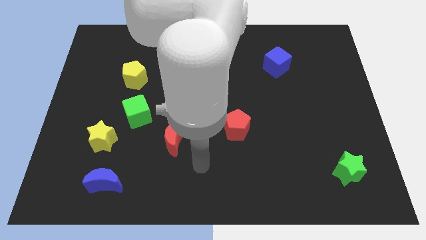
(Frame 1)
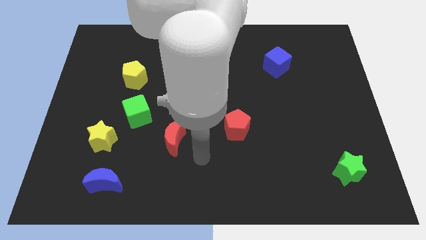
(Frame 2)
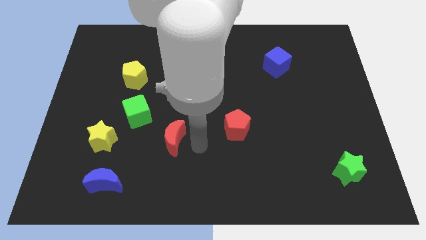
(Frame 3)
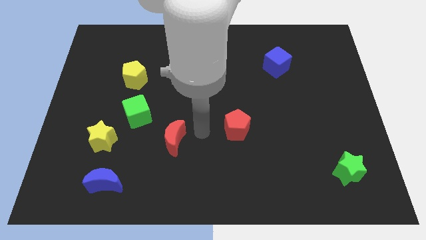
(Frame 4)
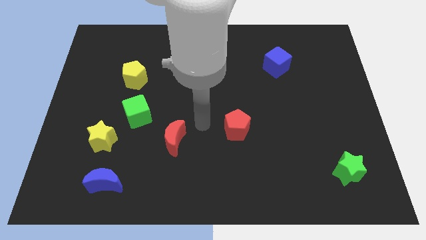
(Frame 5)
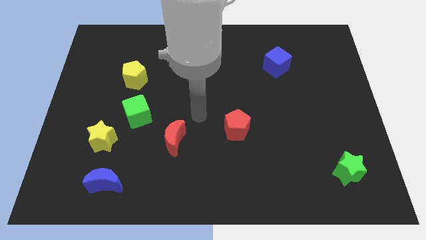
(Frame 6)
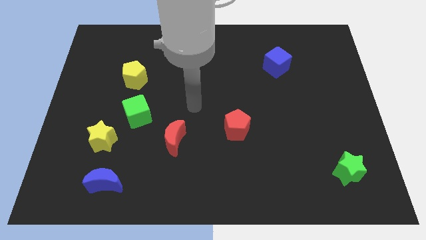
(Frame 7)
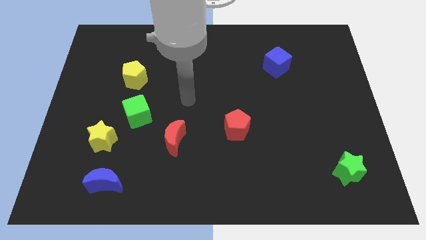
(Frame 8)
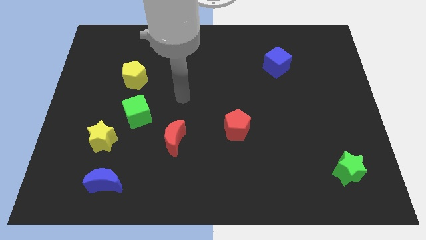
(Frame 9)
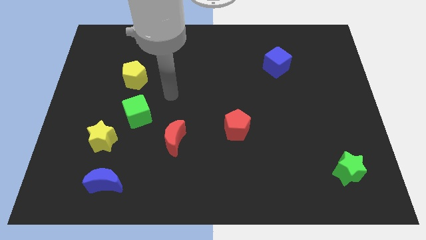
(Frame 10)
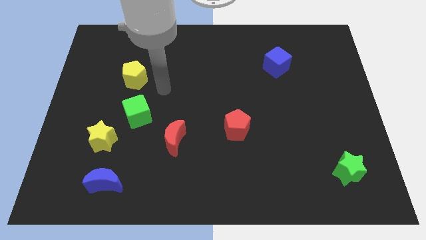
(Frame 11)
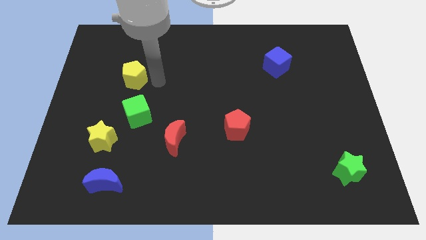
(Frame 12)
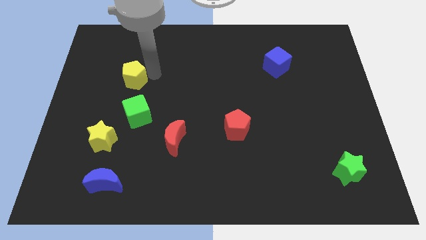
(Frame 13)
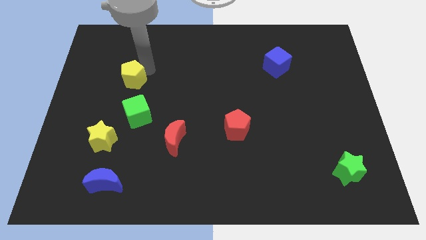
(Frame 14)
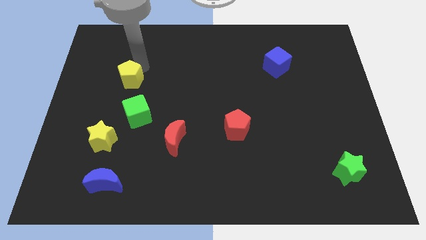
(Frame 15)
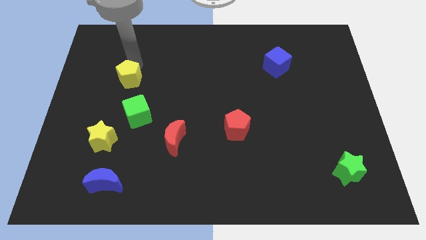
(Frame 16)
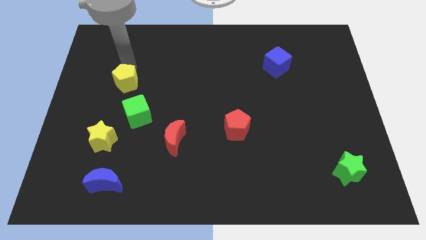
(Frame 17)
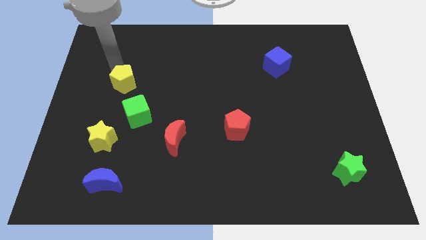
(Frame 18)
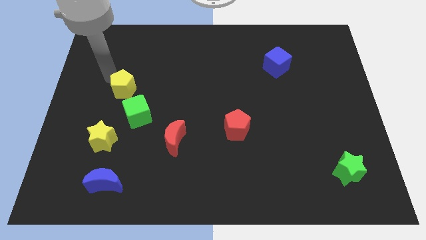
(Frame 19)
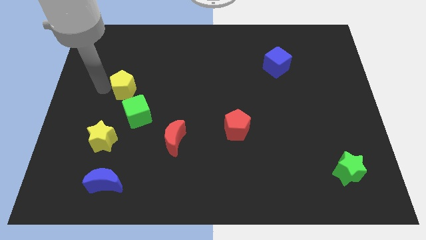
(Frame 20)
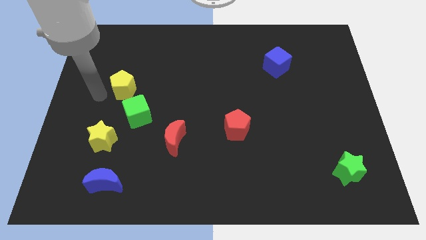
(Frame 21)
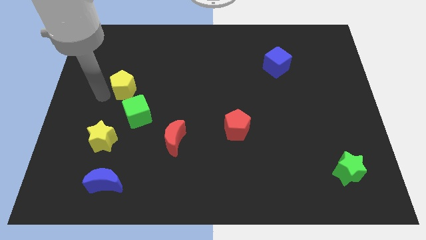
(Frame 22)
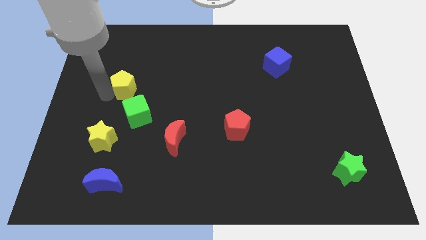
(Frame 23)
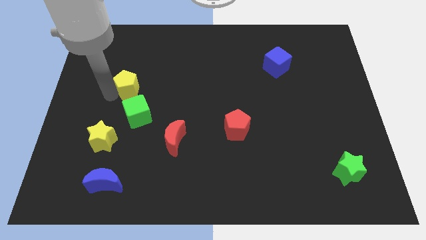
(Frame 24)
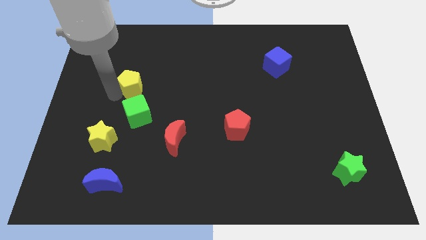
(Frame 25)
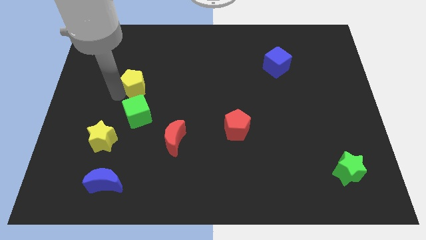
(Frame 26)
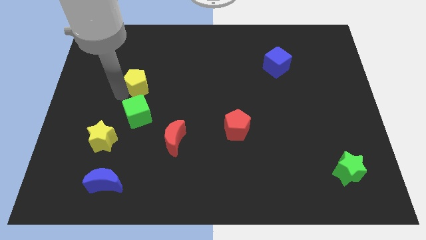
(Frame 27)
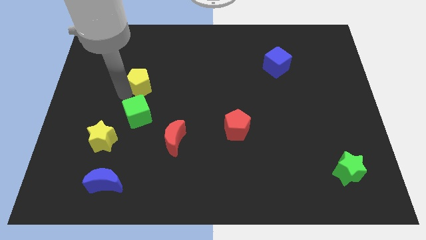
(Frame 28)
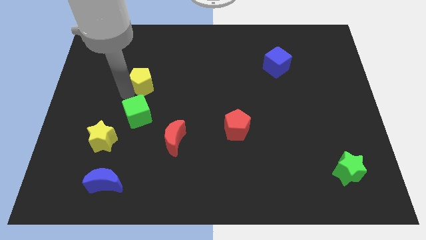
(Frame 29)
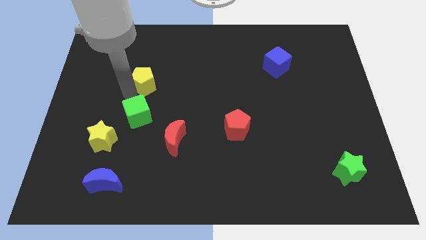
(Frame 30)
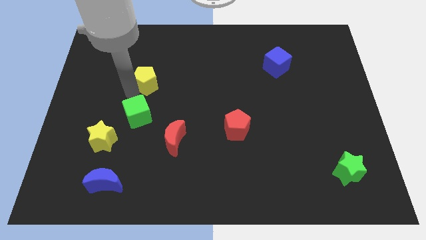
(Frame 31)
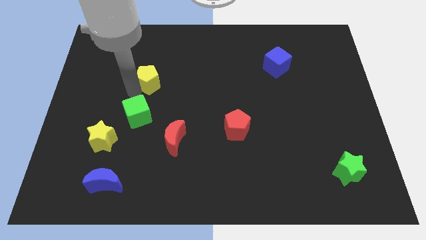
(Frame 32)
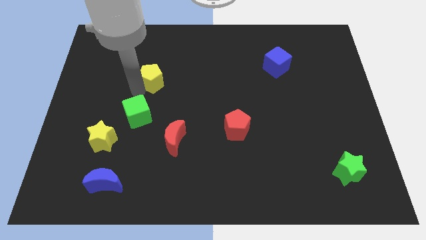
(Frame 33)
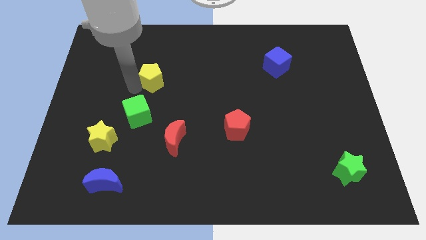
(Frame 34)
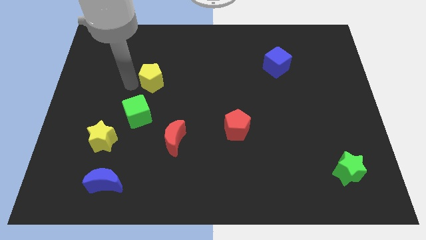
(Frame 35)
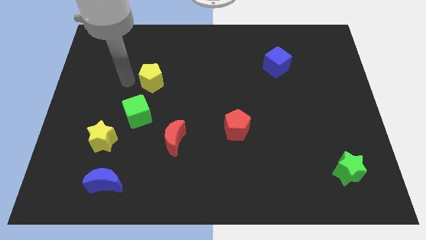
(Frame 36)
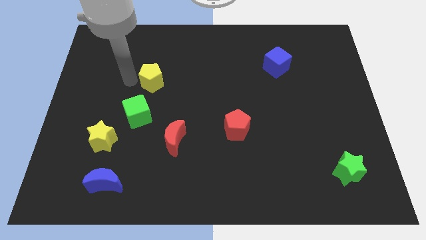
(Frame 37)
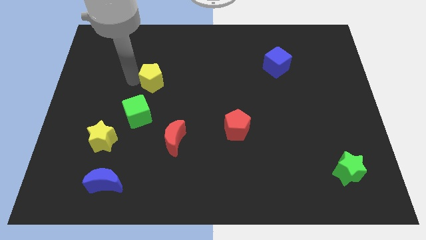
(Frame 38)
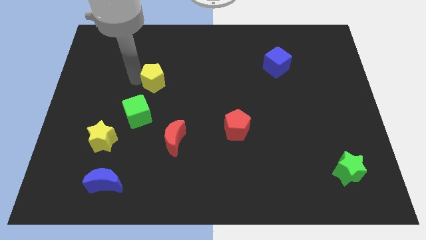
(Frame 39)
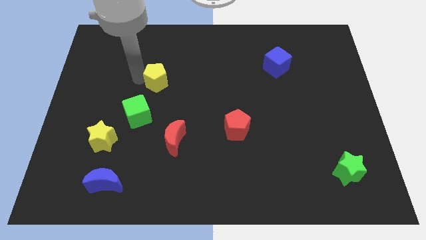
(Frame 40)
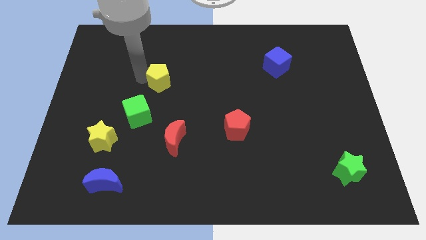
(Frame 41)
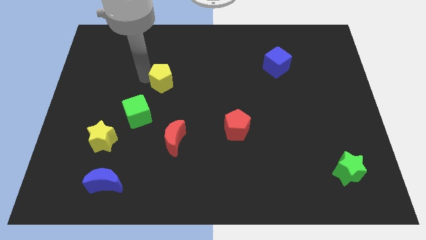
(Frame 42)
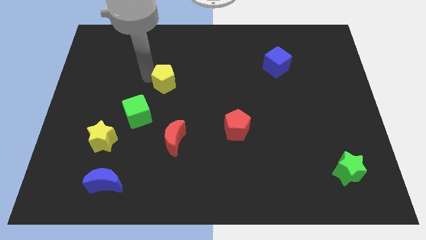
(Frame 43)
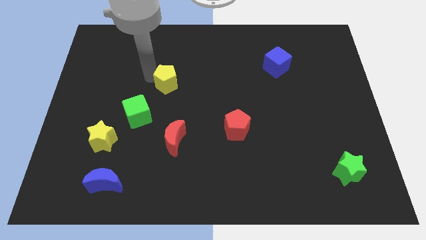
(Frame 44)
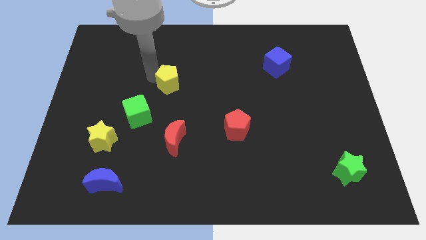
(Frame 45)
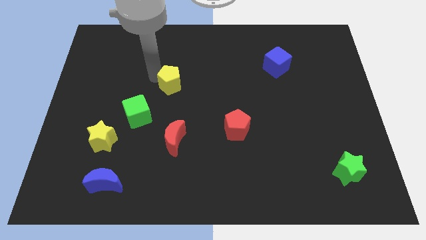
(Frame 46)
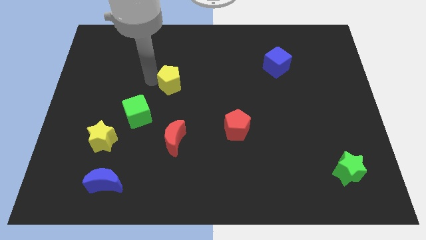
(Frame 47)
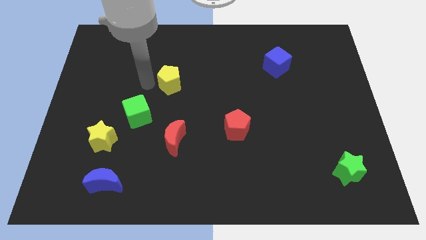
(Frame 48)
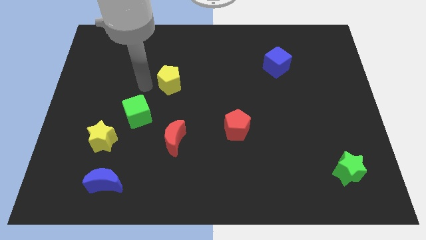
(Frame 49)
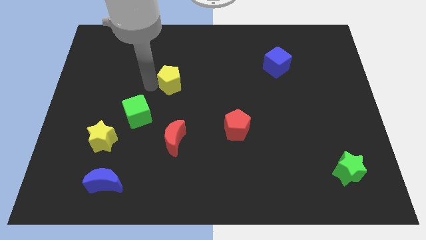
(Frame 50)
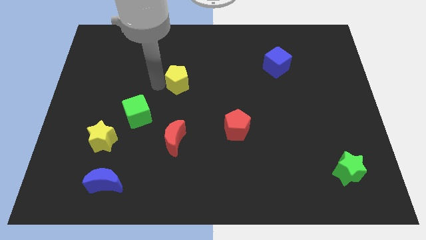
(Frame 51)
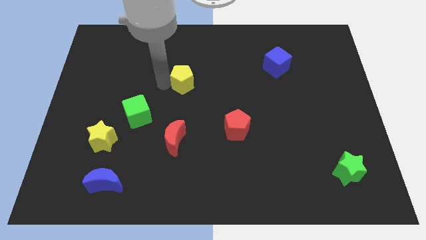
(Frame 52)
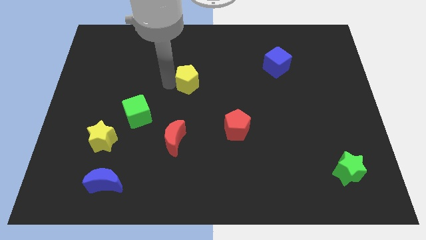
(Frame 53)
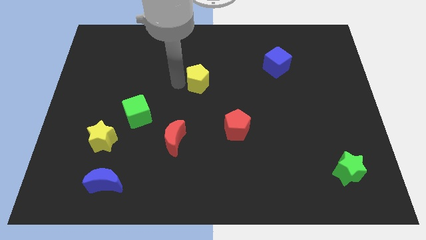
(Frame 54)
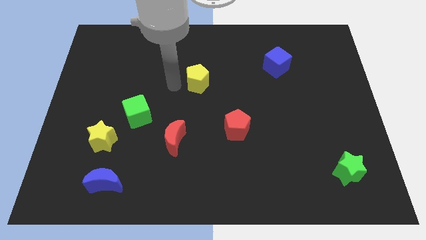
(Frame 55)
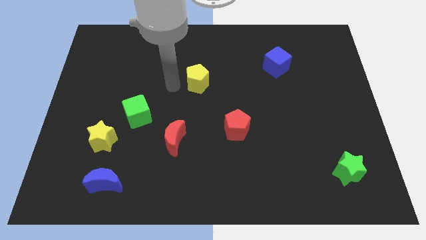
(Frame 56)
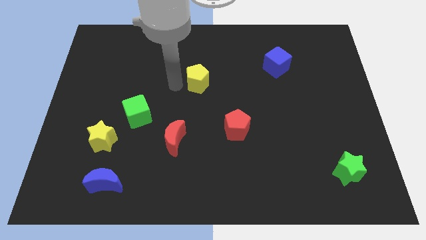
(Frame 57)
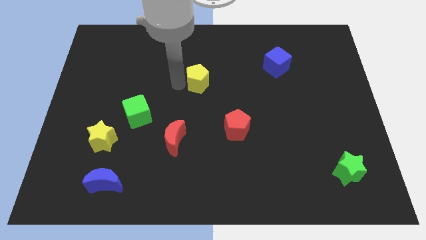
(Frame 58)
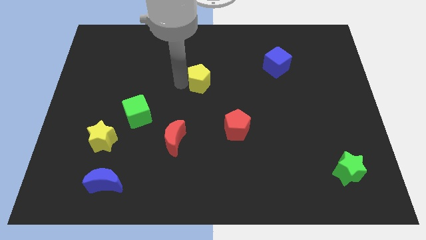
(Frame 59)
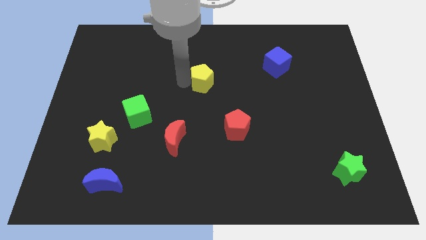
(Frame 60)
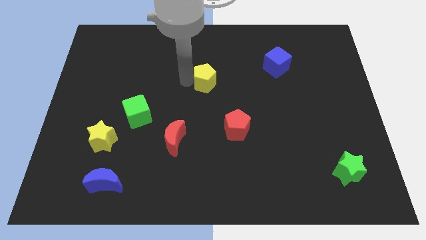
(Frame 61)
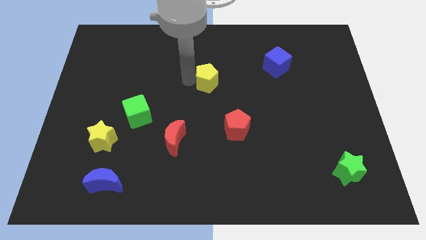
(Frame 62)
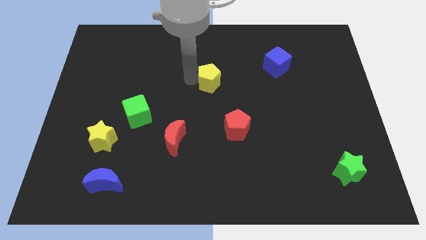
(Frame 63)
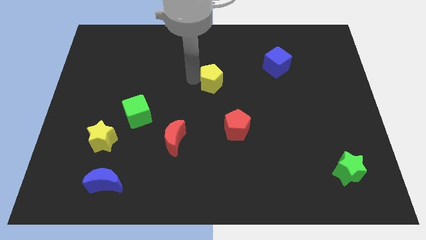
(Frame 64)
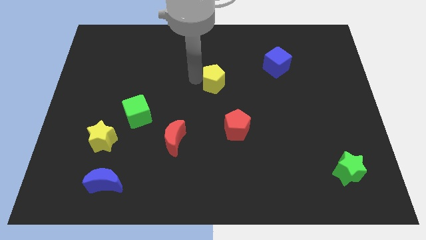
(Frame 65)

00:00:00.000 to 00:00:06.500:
move the yellow pentagon to the right

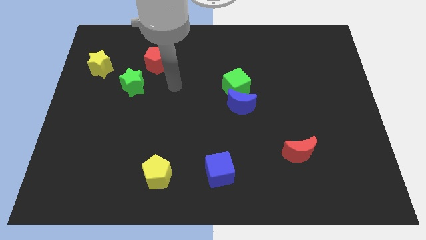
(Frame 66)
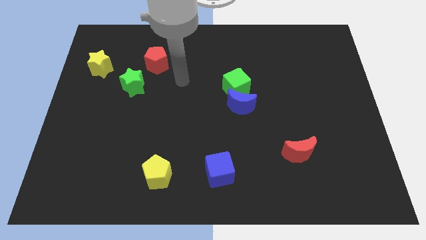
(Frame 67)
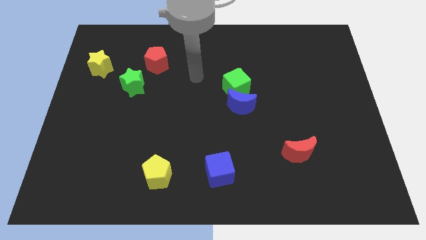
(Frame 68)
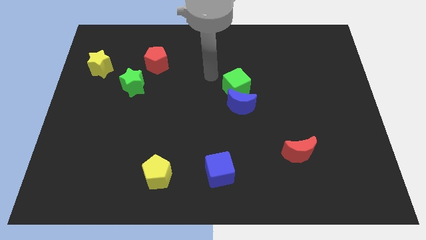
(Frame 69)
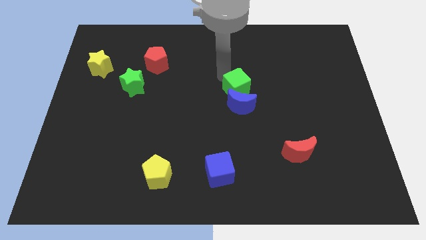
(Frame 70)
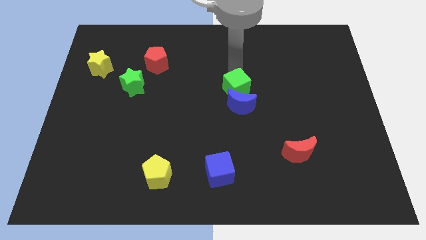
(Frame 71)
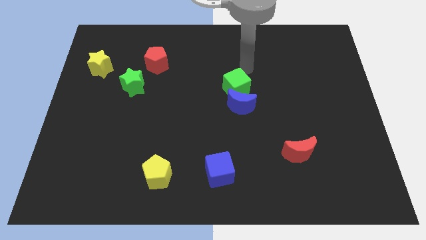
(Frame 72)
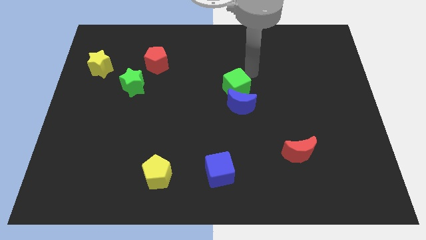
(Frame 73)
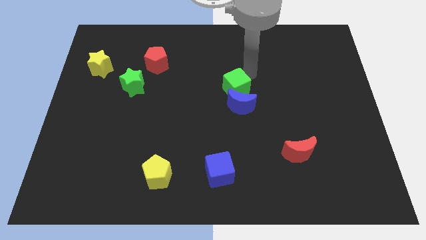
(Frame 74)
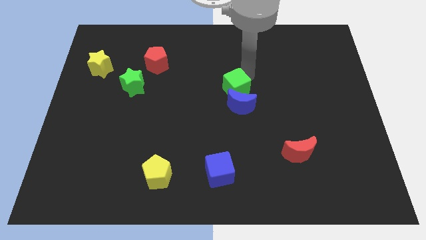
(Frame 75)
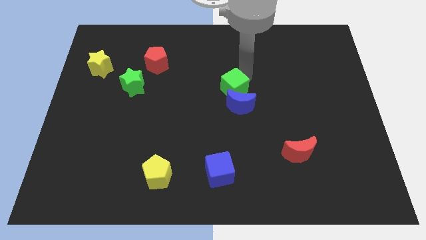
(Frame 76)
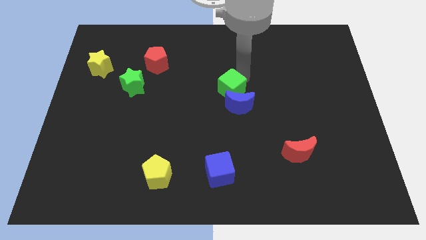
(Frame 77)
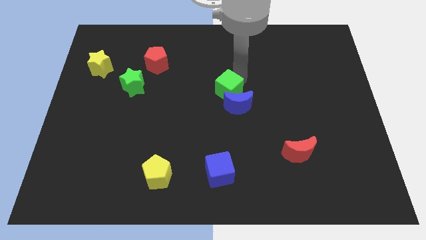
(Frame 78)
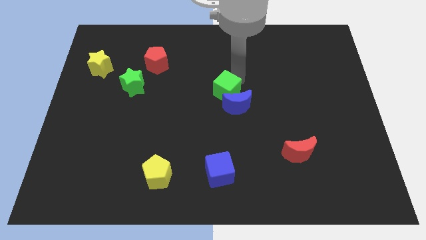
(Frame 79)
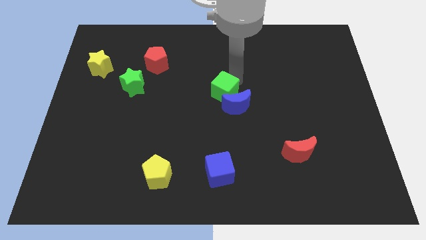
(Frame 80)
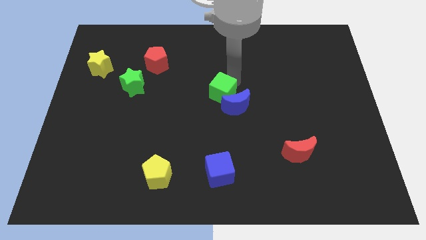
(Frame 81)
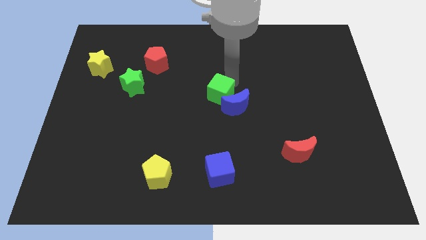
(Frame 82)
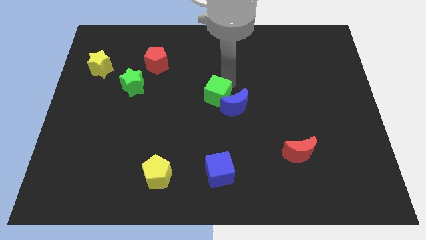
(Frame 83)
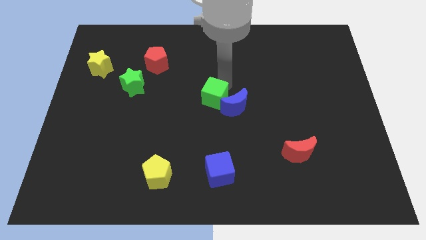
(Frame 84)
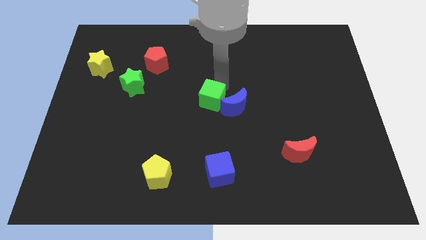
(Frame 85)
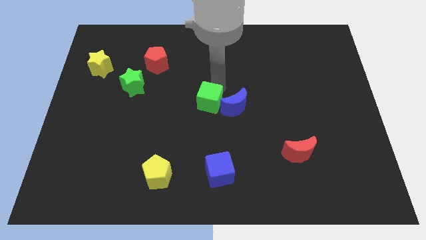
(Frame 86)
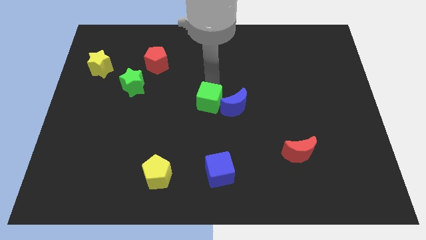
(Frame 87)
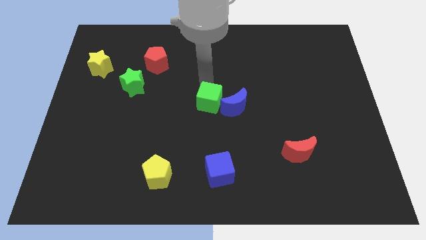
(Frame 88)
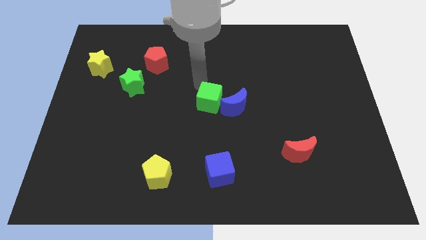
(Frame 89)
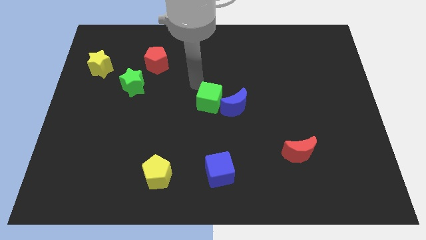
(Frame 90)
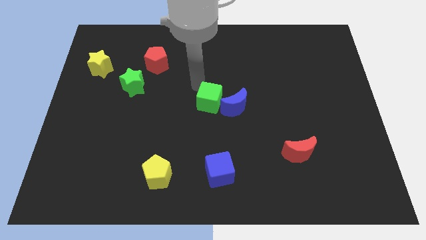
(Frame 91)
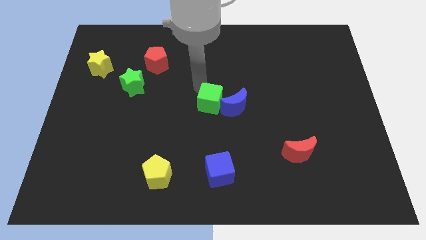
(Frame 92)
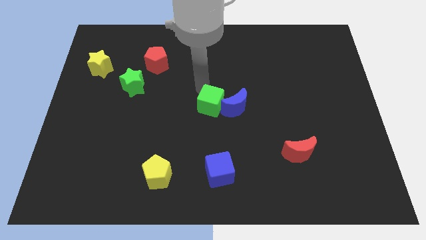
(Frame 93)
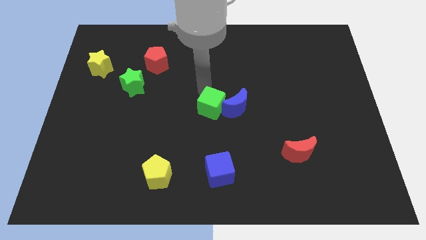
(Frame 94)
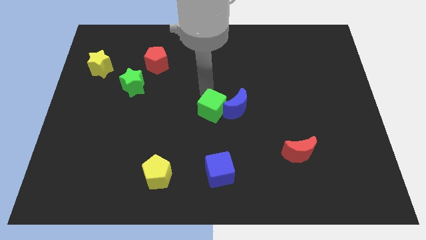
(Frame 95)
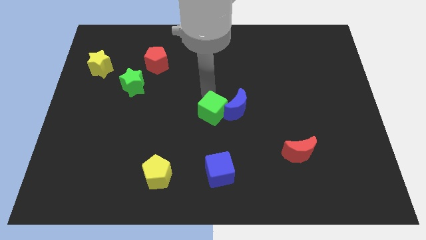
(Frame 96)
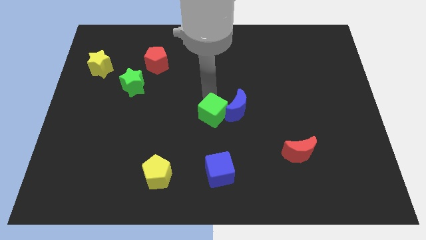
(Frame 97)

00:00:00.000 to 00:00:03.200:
slide the green cube a little bit downwards
